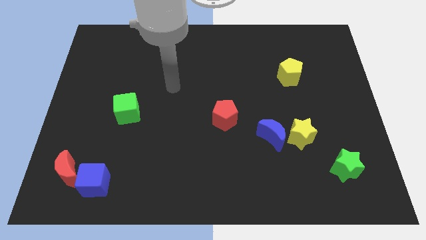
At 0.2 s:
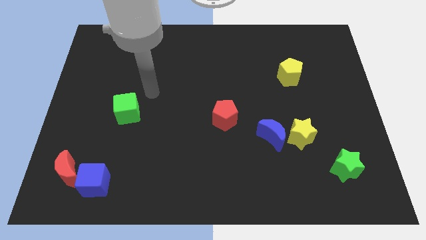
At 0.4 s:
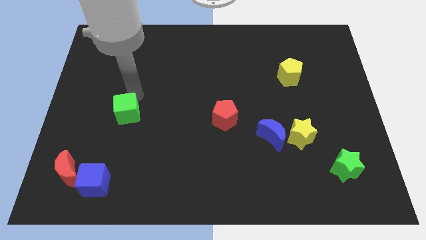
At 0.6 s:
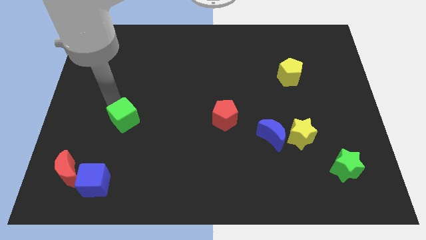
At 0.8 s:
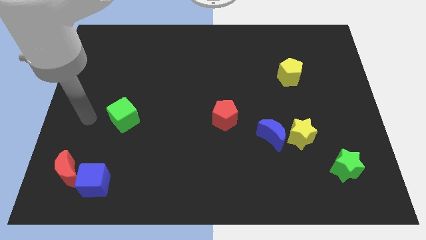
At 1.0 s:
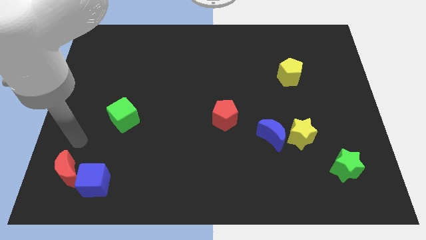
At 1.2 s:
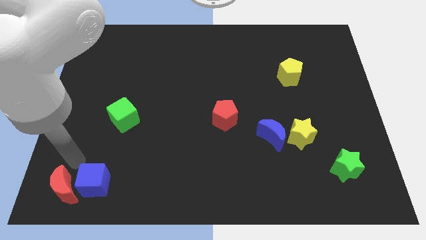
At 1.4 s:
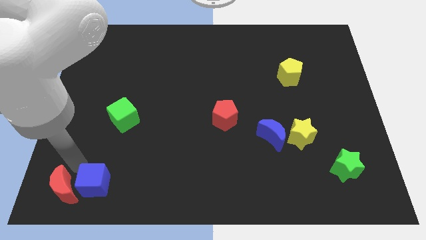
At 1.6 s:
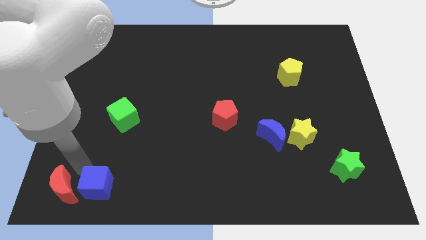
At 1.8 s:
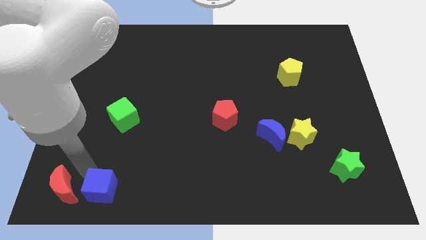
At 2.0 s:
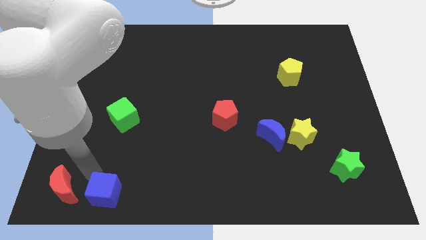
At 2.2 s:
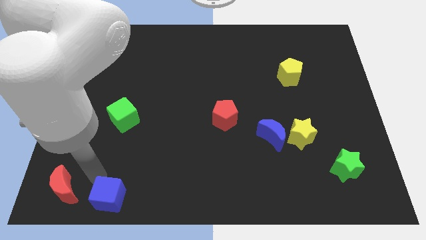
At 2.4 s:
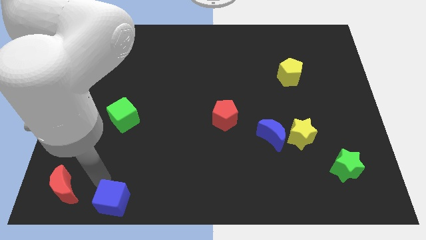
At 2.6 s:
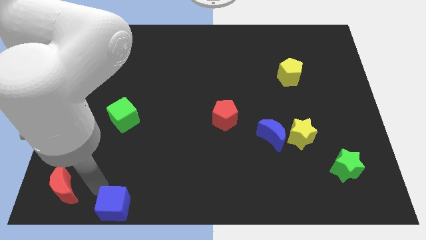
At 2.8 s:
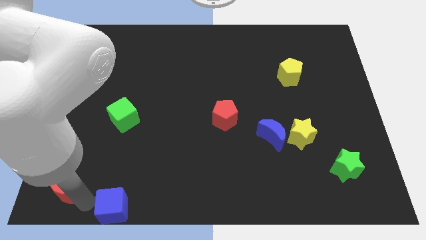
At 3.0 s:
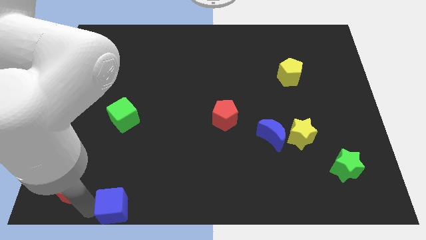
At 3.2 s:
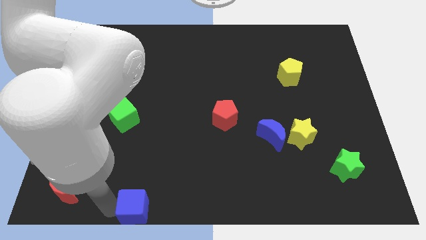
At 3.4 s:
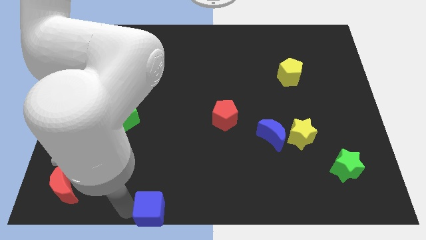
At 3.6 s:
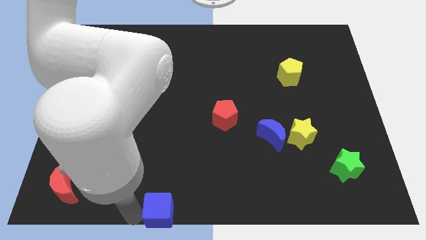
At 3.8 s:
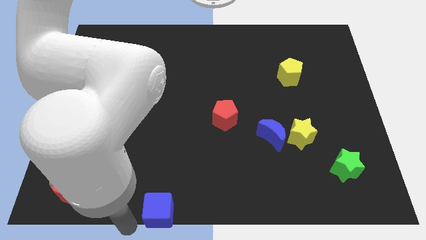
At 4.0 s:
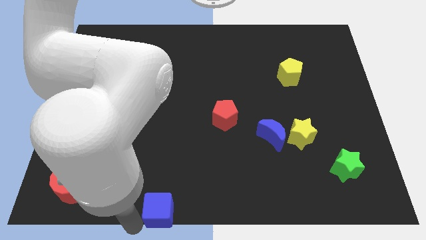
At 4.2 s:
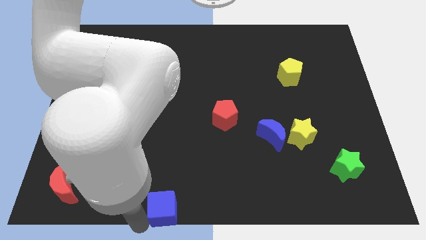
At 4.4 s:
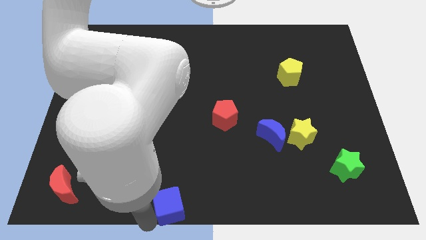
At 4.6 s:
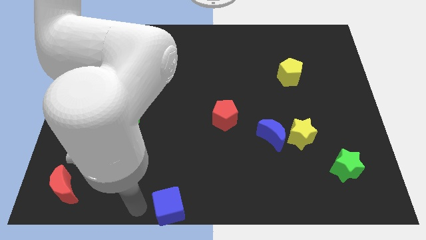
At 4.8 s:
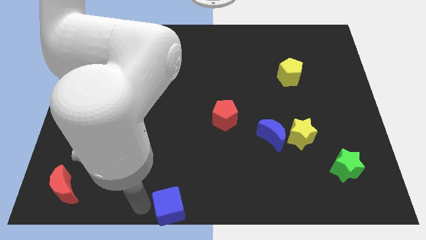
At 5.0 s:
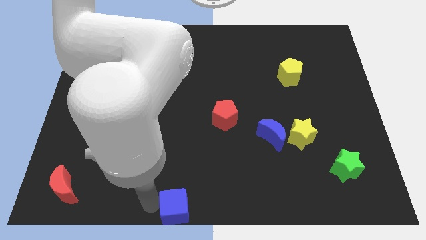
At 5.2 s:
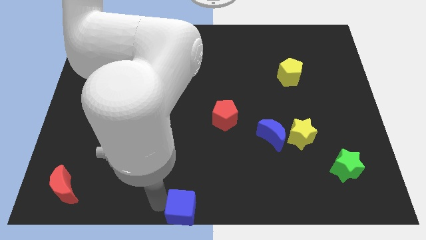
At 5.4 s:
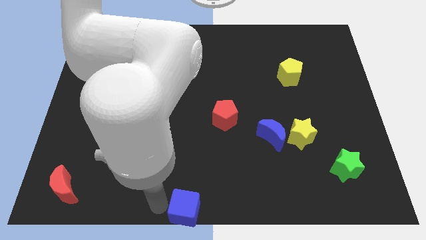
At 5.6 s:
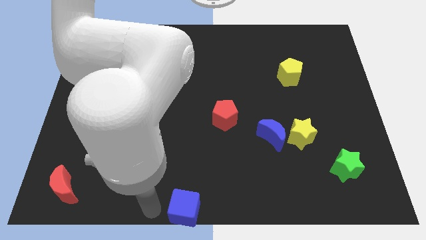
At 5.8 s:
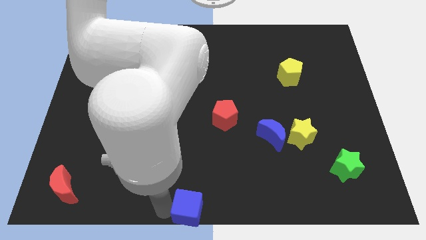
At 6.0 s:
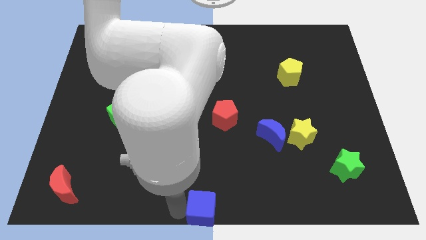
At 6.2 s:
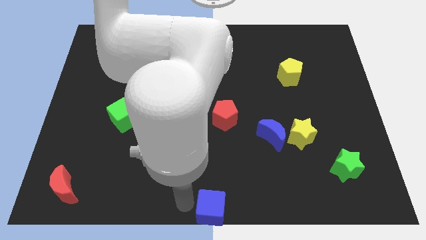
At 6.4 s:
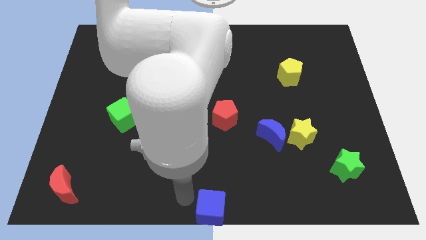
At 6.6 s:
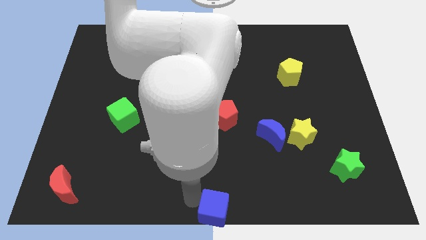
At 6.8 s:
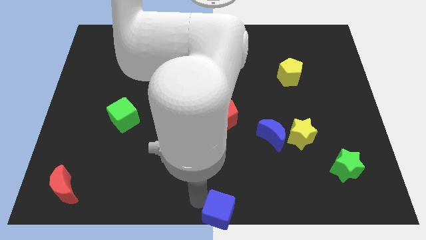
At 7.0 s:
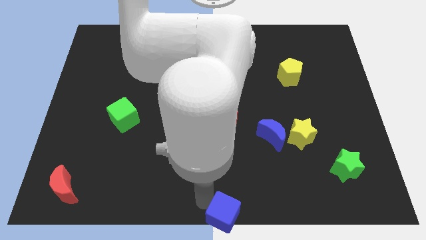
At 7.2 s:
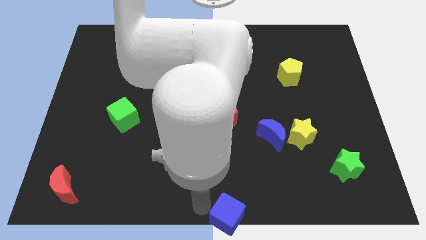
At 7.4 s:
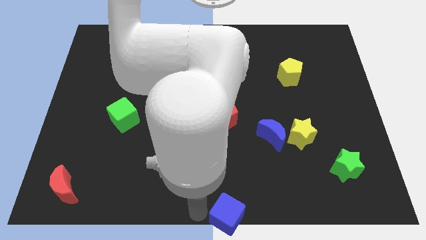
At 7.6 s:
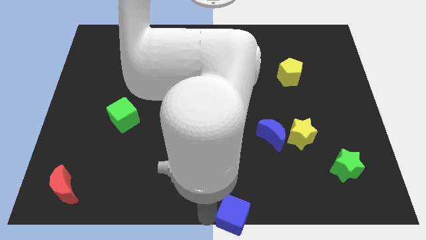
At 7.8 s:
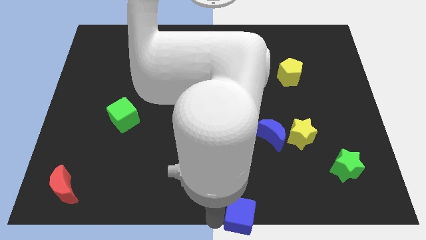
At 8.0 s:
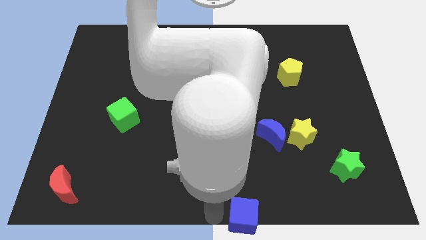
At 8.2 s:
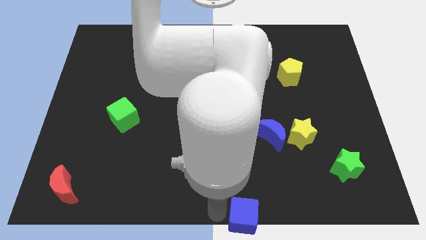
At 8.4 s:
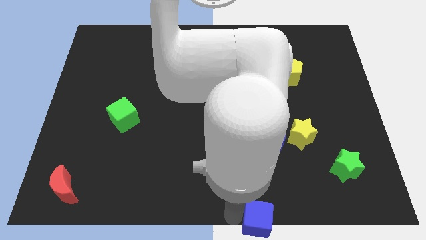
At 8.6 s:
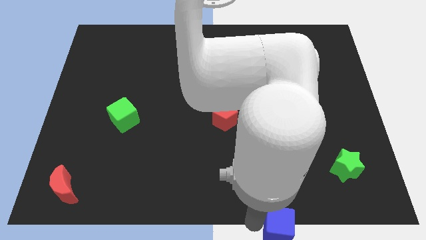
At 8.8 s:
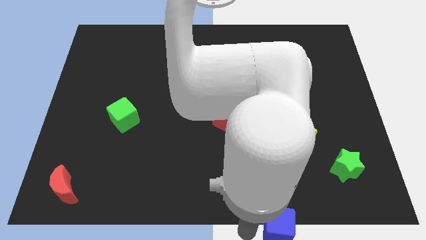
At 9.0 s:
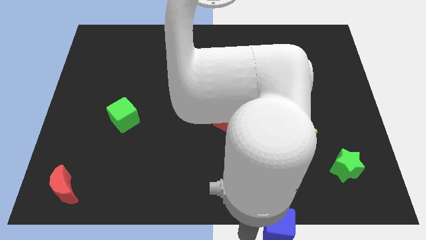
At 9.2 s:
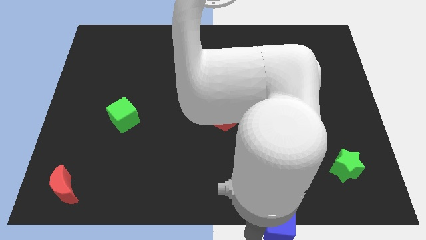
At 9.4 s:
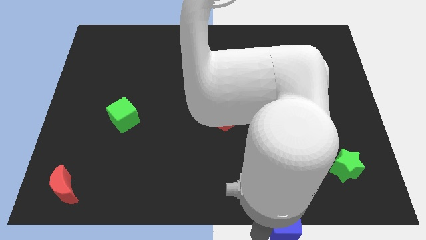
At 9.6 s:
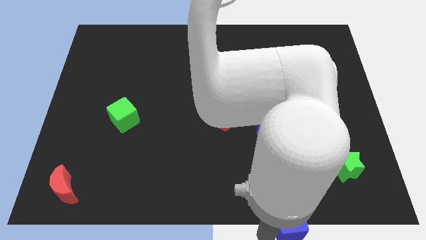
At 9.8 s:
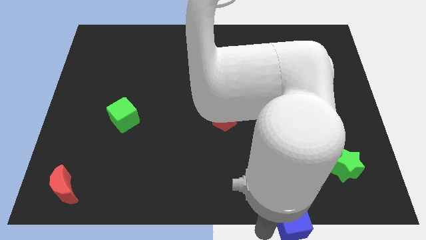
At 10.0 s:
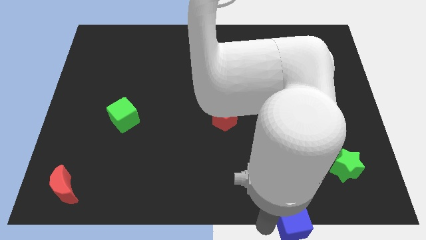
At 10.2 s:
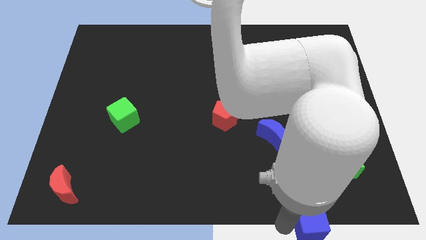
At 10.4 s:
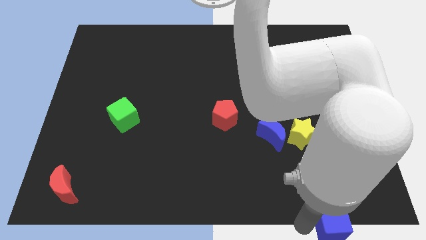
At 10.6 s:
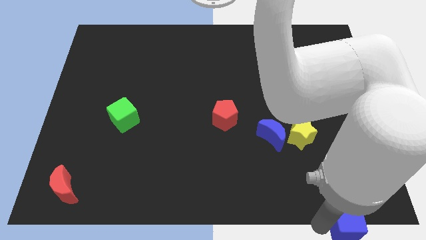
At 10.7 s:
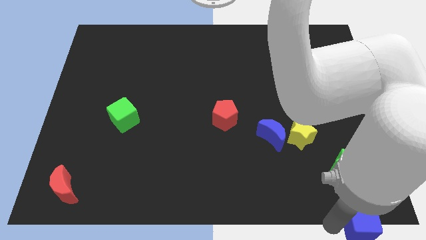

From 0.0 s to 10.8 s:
slide the blue cube to the lower right corner

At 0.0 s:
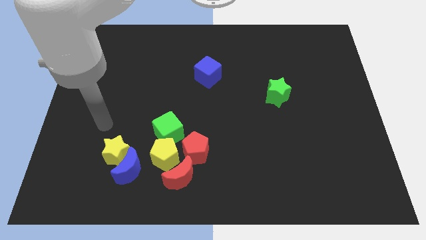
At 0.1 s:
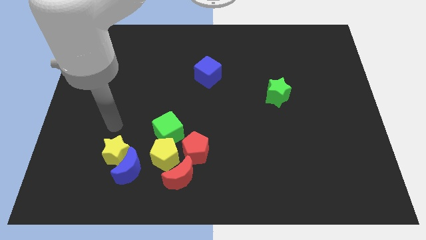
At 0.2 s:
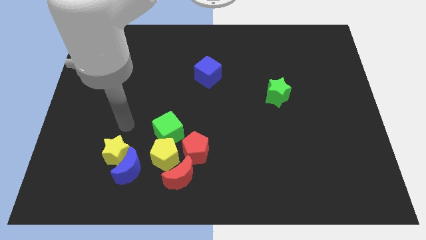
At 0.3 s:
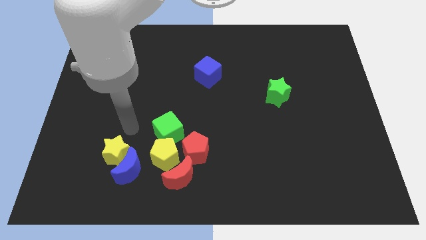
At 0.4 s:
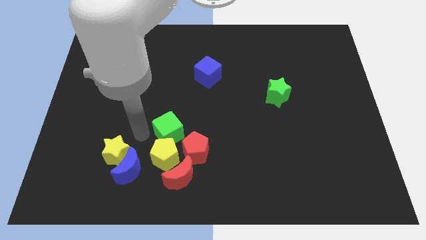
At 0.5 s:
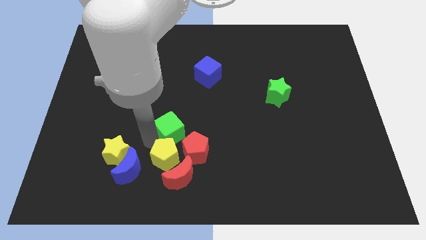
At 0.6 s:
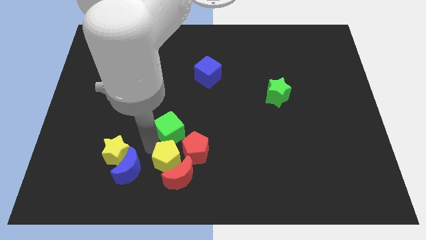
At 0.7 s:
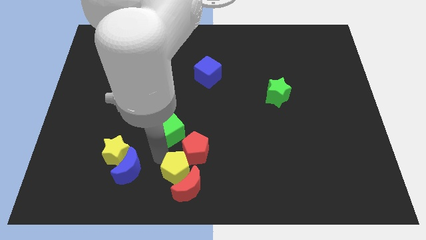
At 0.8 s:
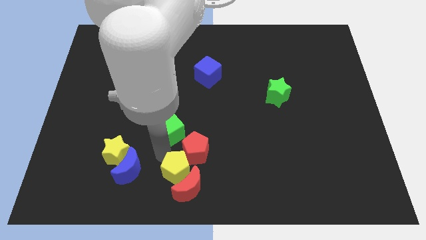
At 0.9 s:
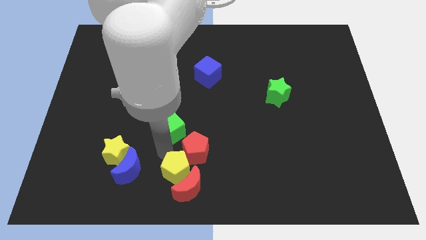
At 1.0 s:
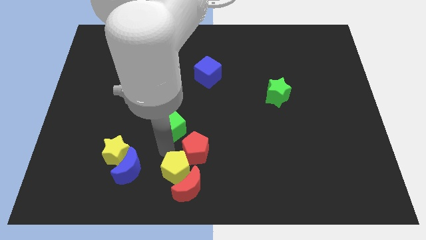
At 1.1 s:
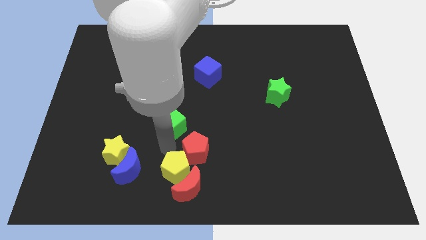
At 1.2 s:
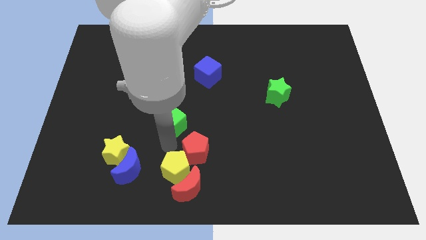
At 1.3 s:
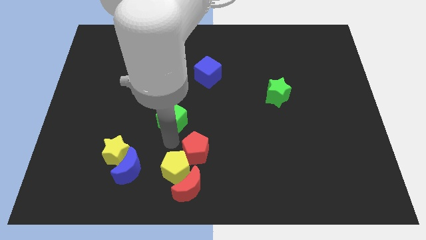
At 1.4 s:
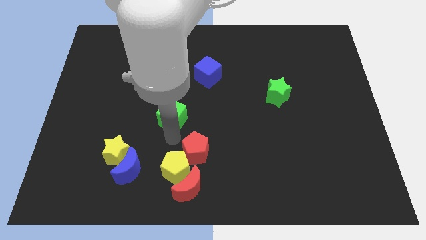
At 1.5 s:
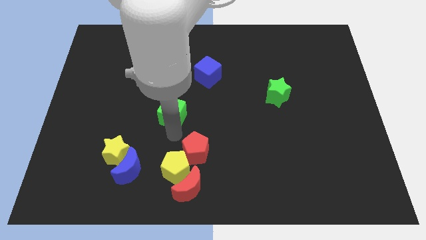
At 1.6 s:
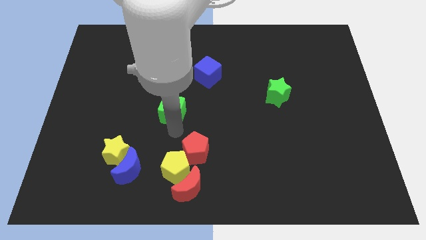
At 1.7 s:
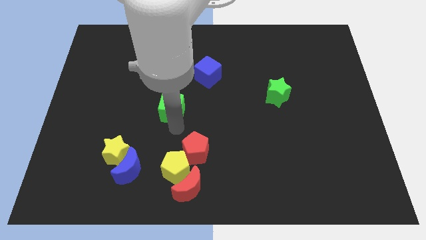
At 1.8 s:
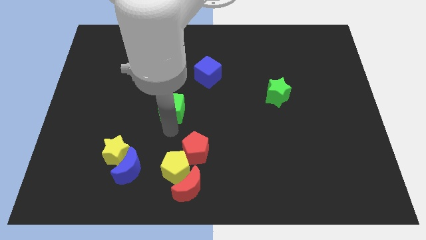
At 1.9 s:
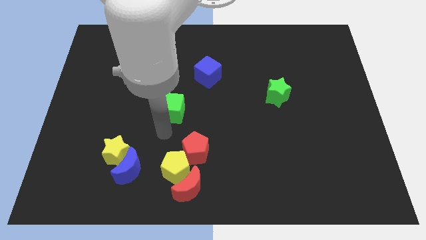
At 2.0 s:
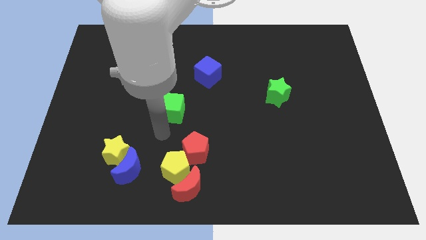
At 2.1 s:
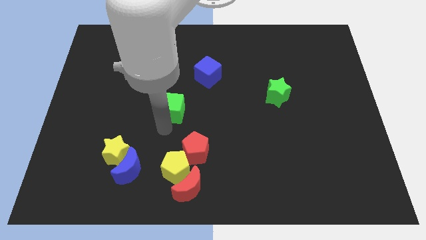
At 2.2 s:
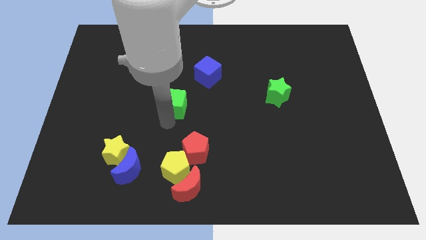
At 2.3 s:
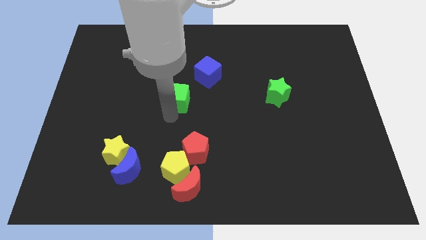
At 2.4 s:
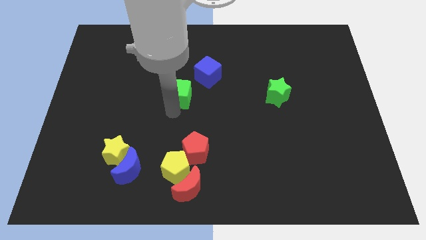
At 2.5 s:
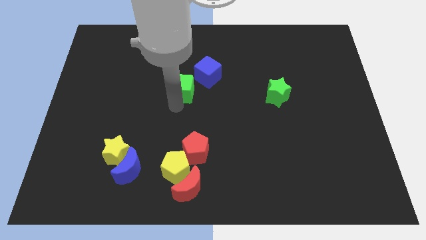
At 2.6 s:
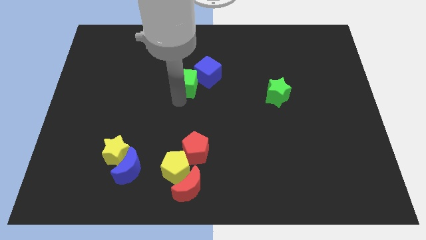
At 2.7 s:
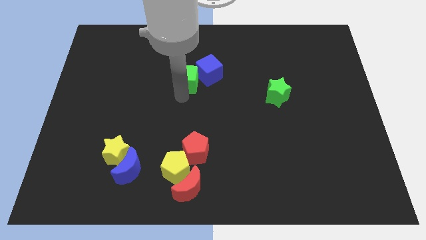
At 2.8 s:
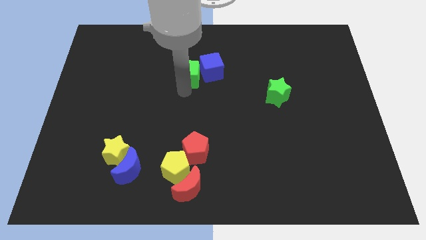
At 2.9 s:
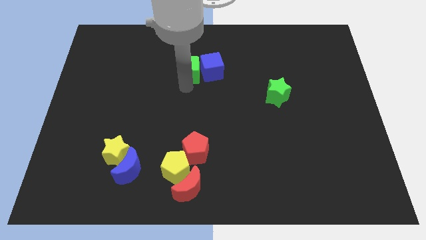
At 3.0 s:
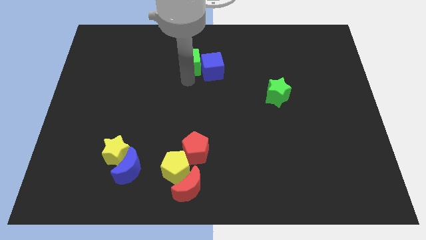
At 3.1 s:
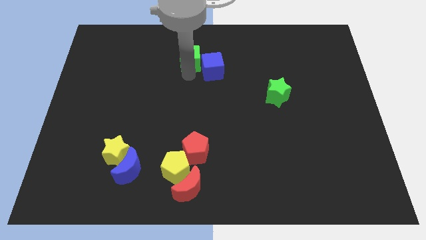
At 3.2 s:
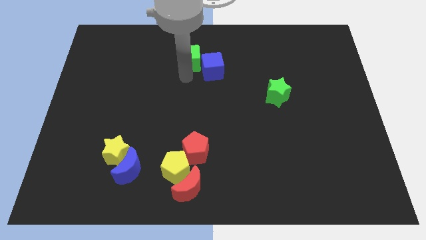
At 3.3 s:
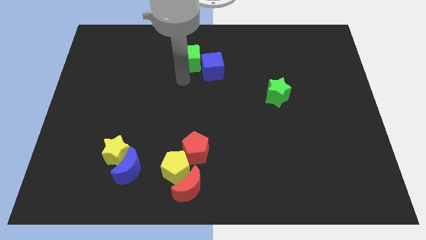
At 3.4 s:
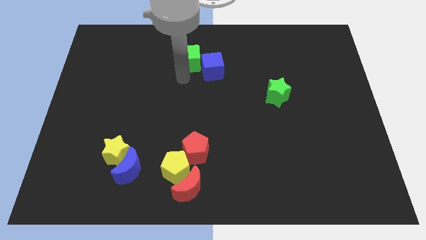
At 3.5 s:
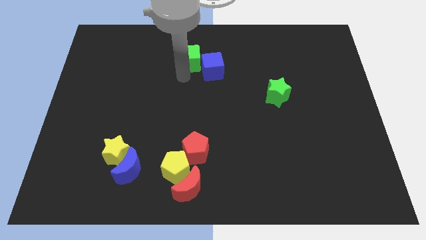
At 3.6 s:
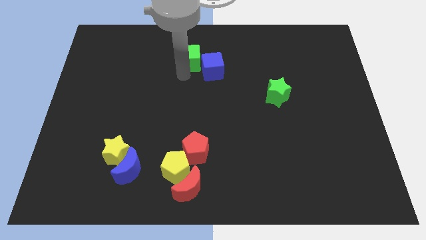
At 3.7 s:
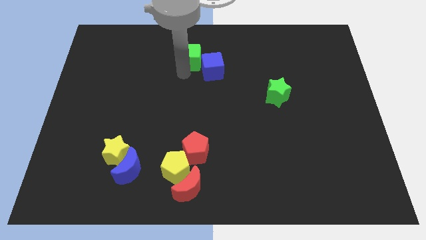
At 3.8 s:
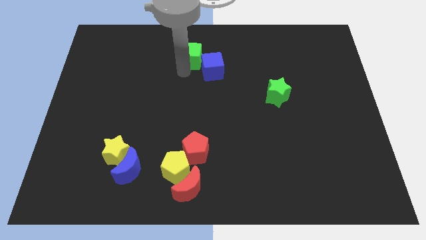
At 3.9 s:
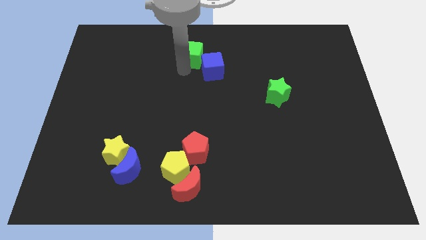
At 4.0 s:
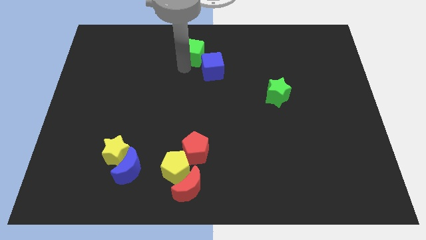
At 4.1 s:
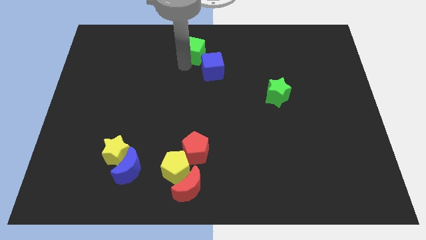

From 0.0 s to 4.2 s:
put the green cube to the top
